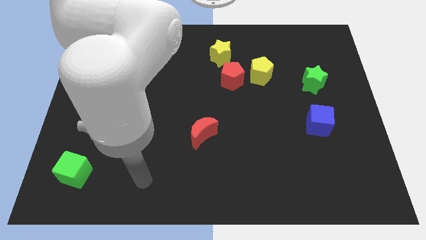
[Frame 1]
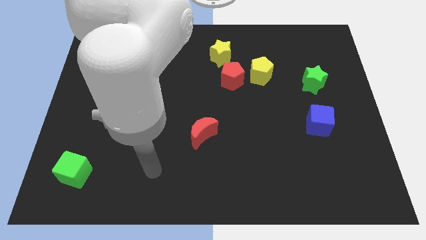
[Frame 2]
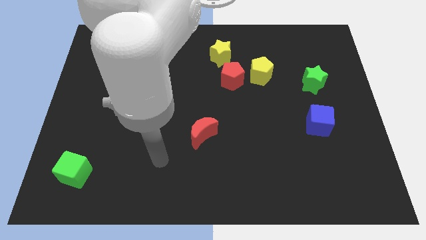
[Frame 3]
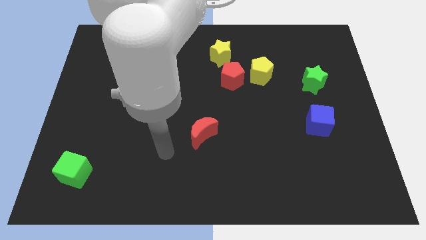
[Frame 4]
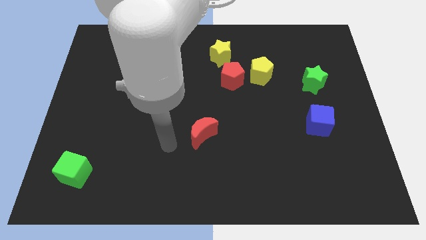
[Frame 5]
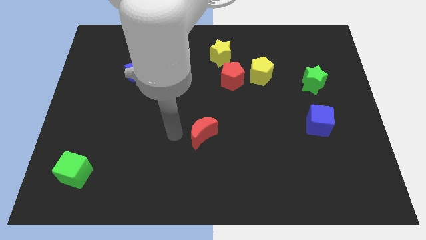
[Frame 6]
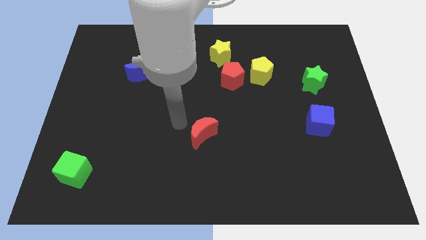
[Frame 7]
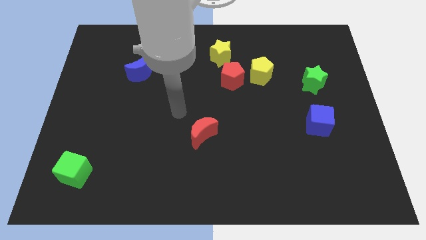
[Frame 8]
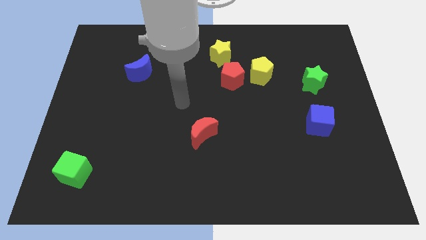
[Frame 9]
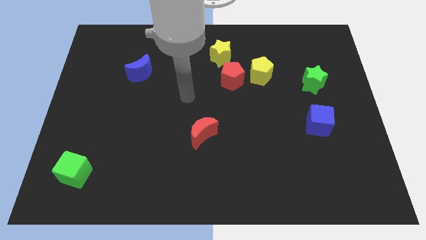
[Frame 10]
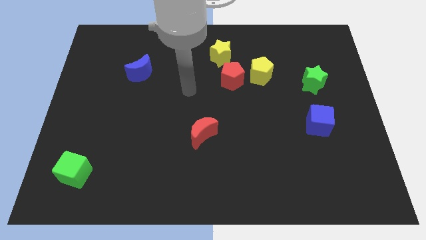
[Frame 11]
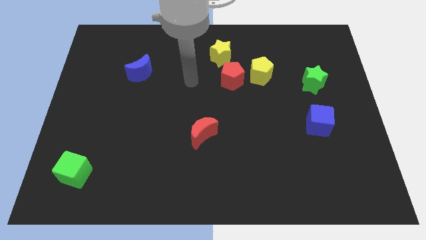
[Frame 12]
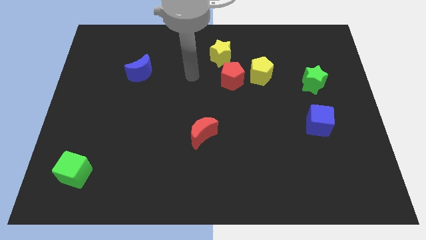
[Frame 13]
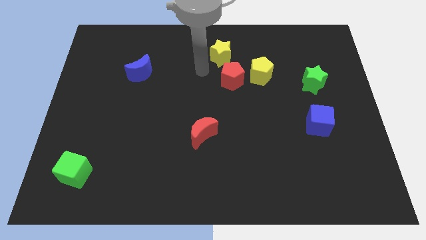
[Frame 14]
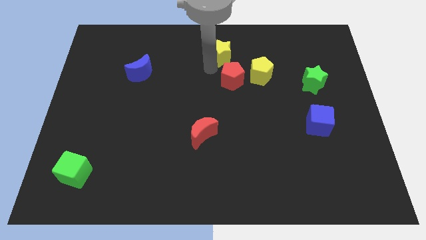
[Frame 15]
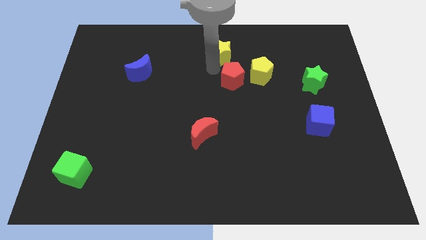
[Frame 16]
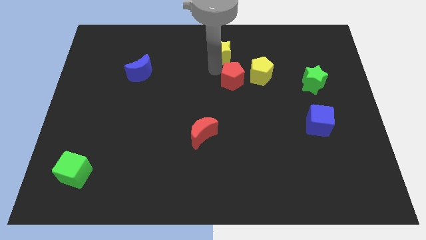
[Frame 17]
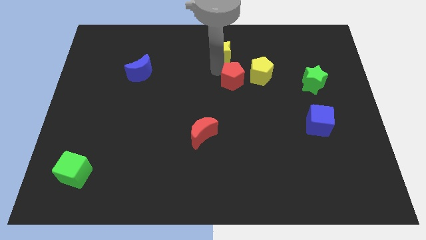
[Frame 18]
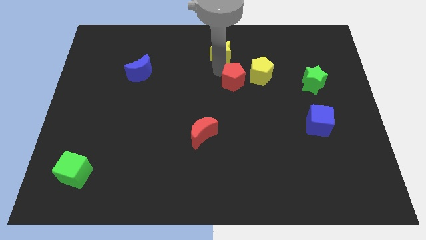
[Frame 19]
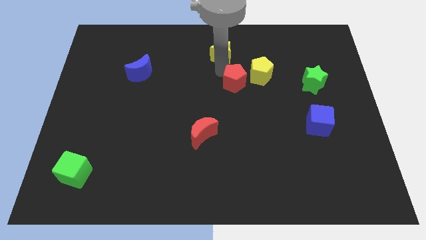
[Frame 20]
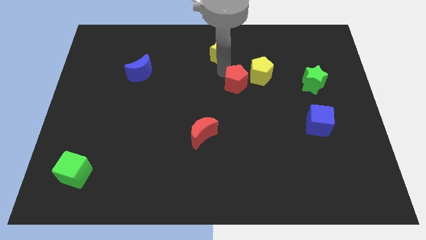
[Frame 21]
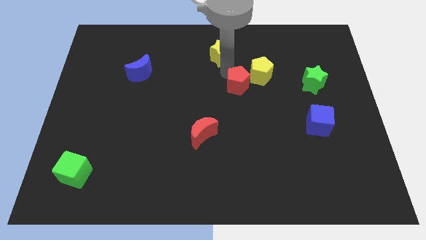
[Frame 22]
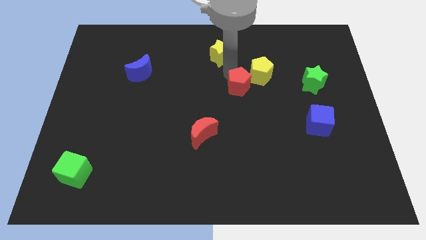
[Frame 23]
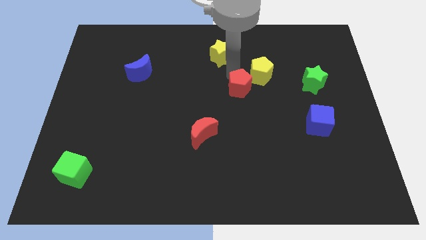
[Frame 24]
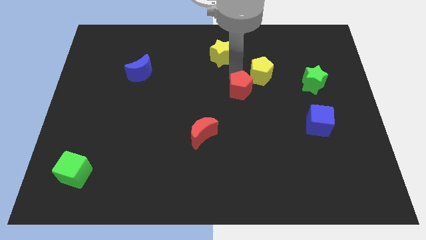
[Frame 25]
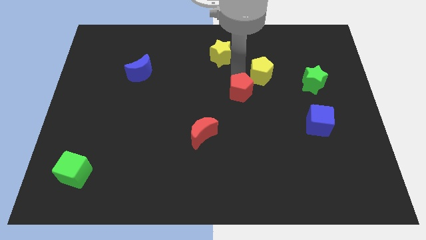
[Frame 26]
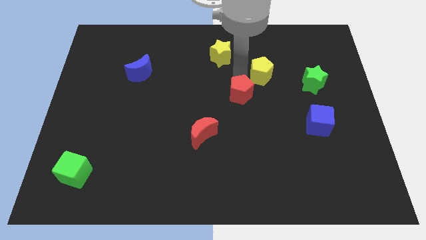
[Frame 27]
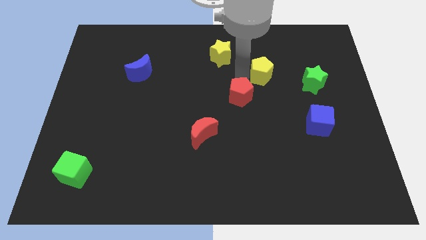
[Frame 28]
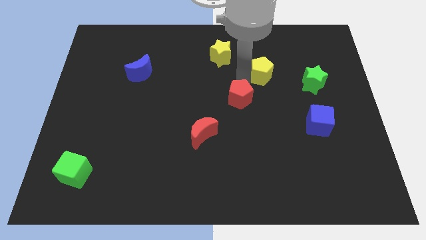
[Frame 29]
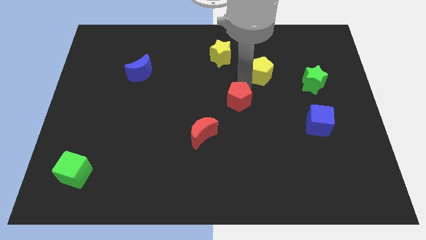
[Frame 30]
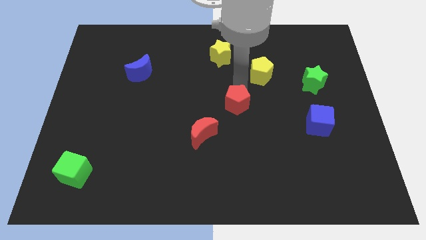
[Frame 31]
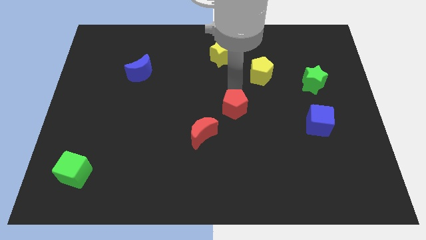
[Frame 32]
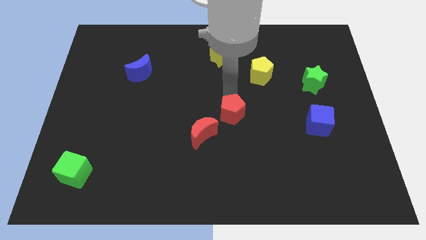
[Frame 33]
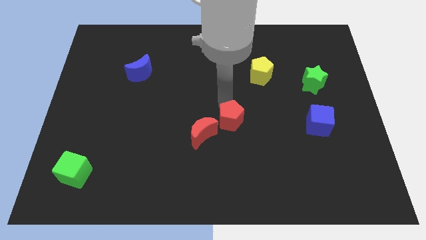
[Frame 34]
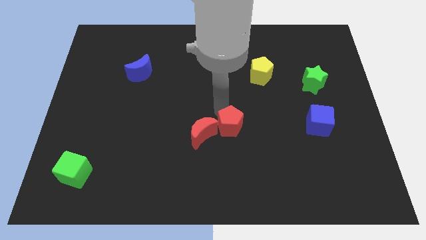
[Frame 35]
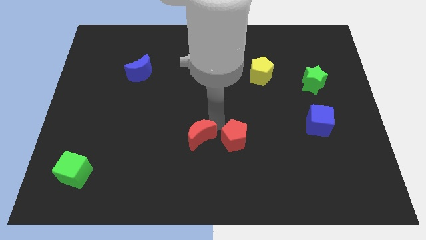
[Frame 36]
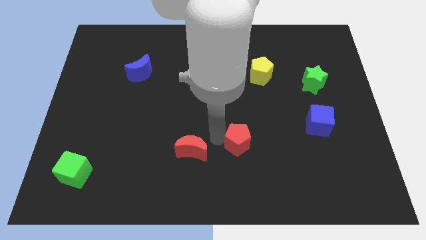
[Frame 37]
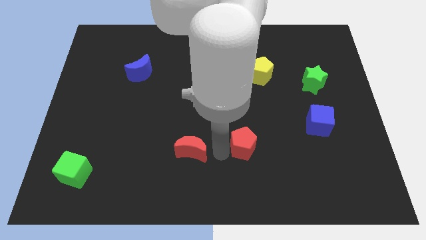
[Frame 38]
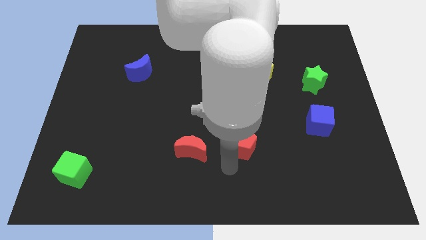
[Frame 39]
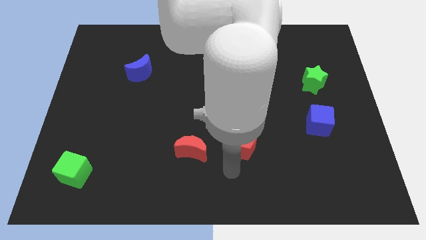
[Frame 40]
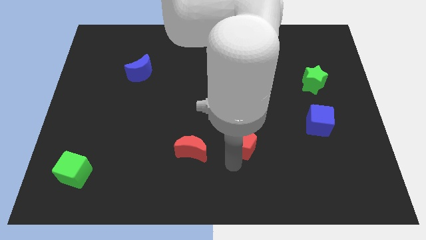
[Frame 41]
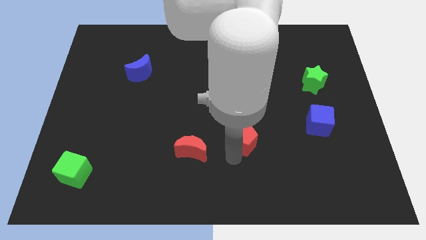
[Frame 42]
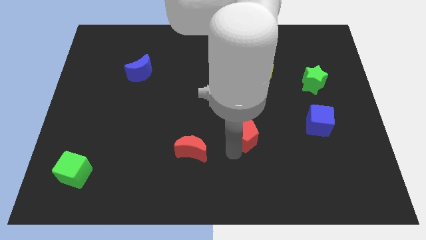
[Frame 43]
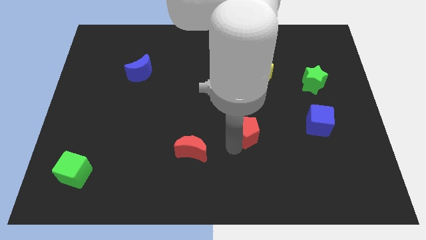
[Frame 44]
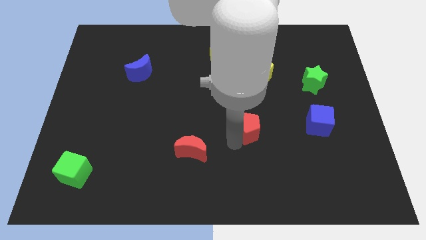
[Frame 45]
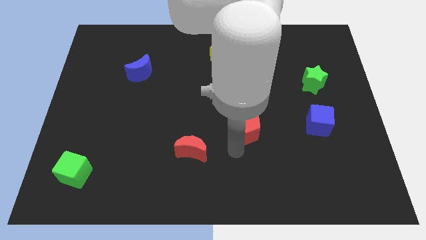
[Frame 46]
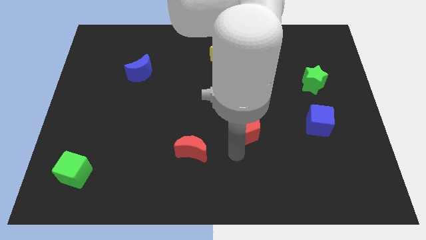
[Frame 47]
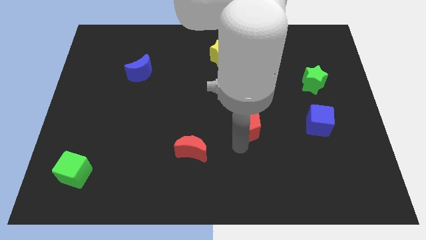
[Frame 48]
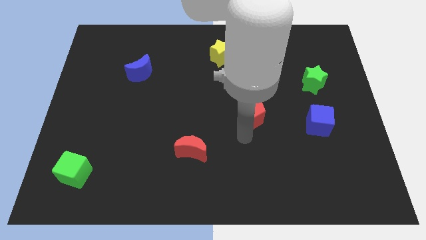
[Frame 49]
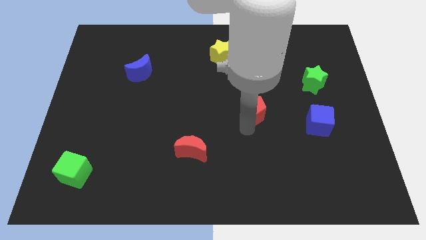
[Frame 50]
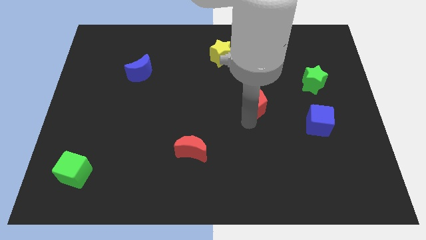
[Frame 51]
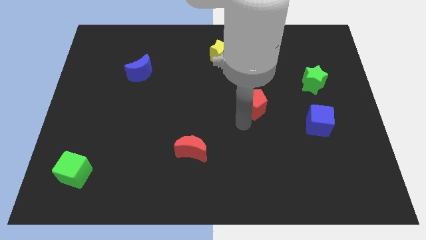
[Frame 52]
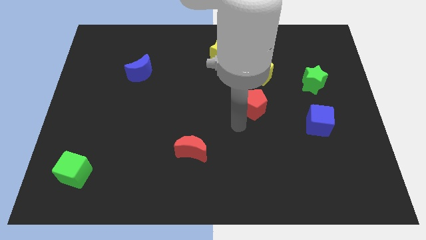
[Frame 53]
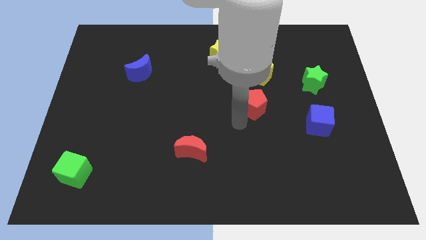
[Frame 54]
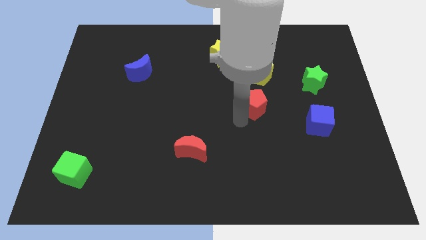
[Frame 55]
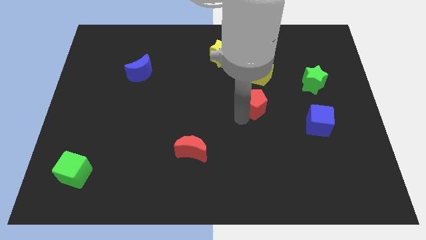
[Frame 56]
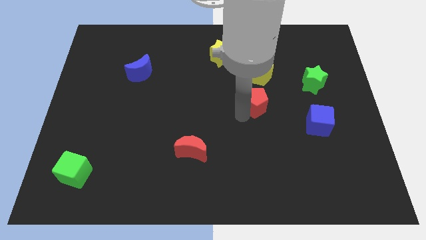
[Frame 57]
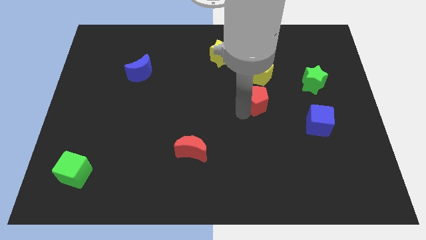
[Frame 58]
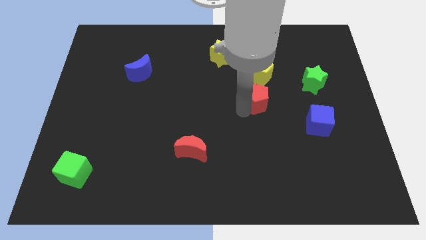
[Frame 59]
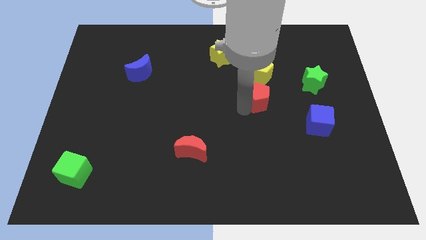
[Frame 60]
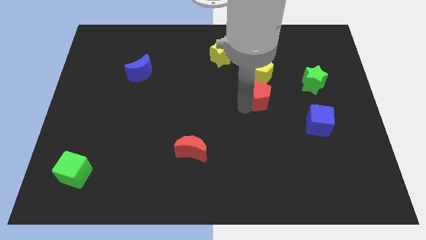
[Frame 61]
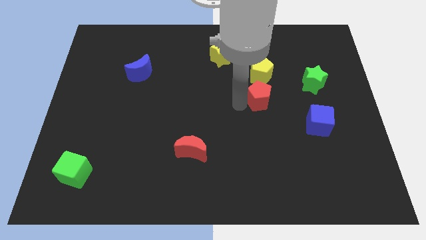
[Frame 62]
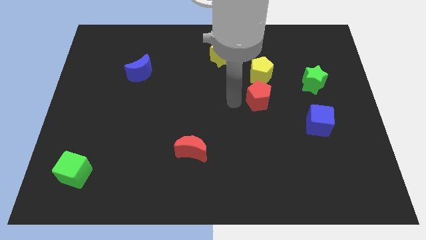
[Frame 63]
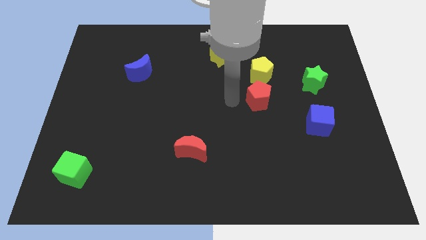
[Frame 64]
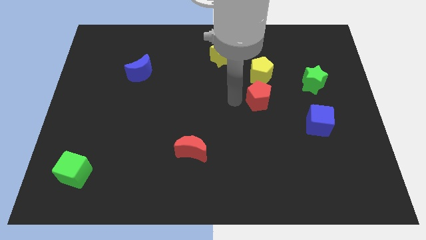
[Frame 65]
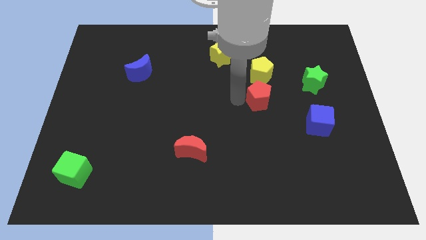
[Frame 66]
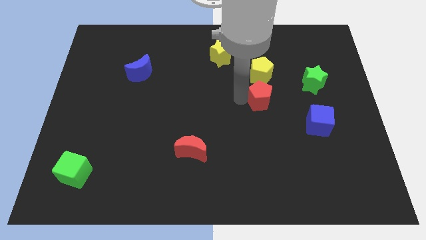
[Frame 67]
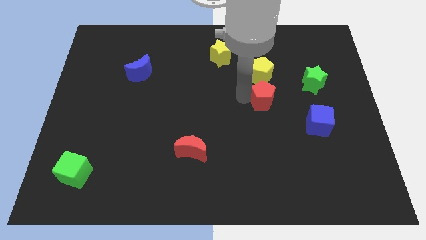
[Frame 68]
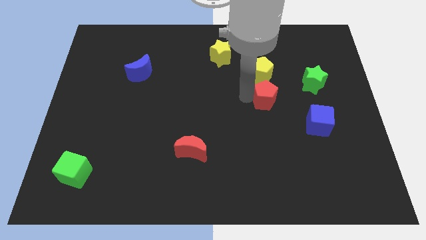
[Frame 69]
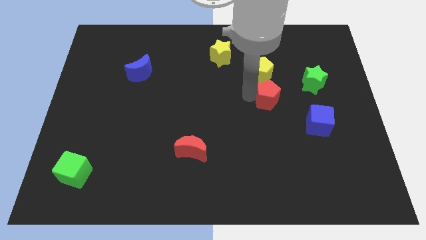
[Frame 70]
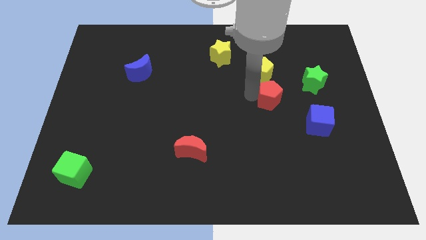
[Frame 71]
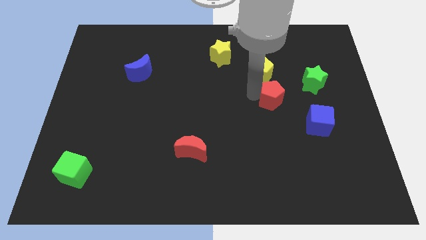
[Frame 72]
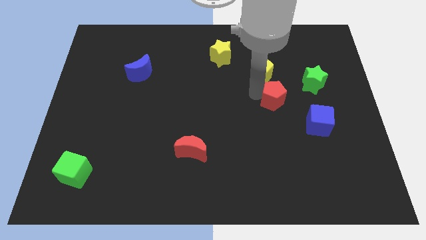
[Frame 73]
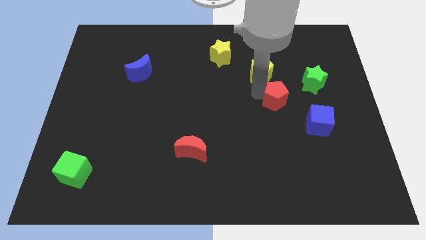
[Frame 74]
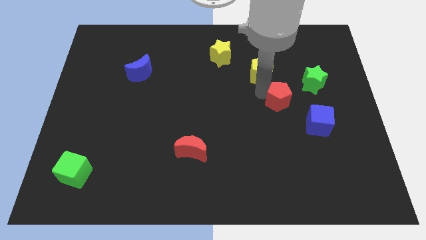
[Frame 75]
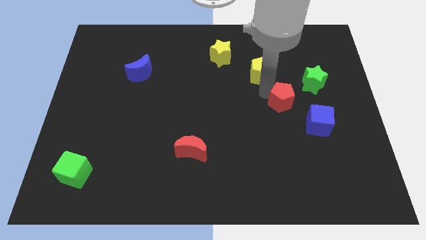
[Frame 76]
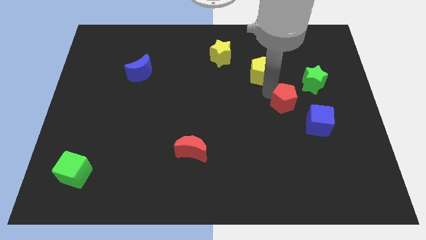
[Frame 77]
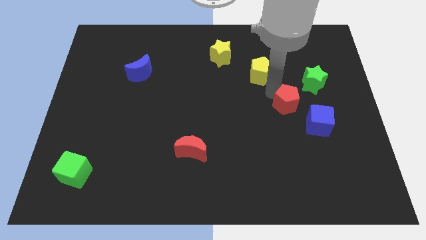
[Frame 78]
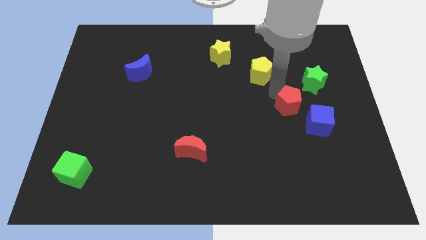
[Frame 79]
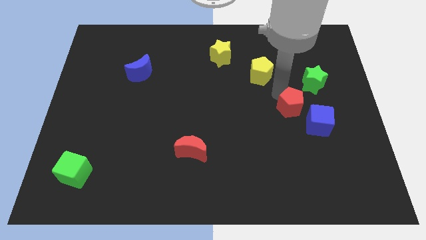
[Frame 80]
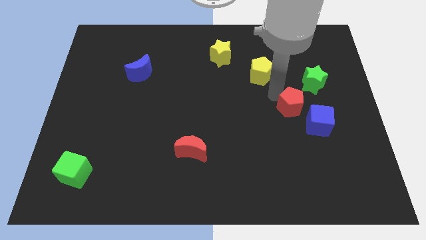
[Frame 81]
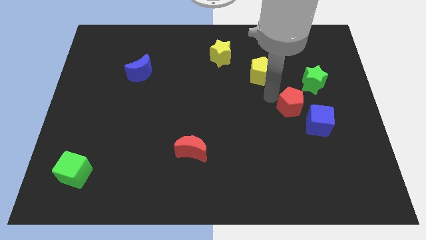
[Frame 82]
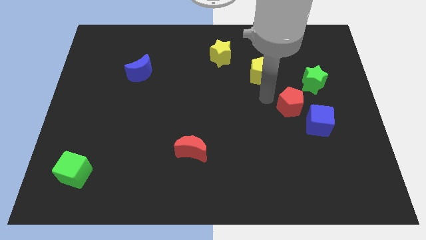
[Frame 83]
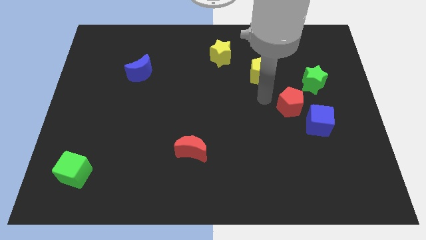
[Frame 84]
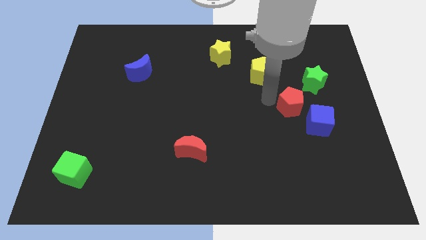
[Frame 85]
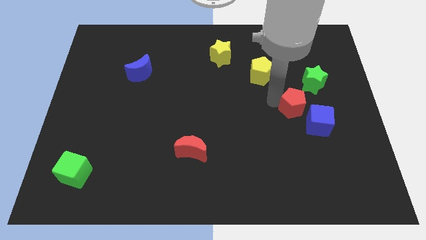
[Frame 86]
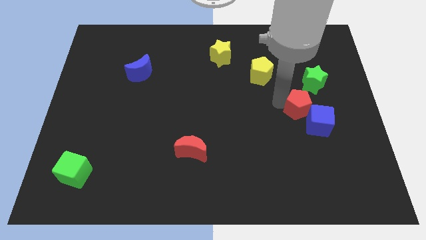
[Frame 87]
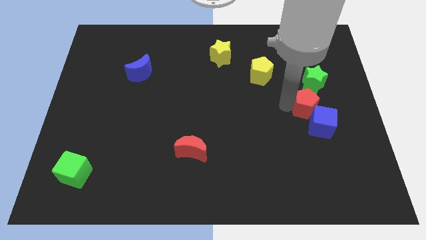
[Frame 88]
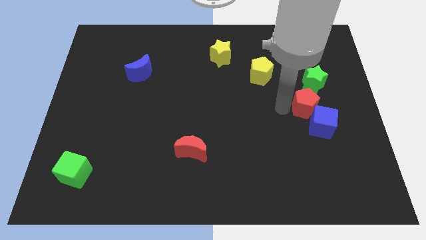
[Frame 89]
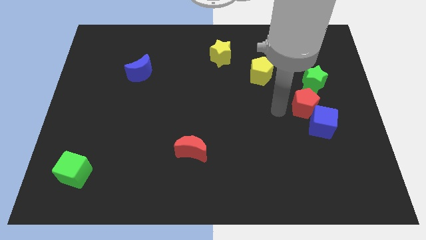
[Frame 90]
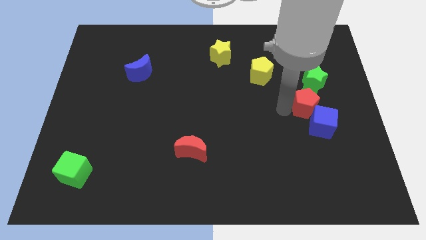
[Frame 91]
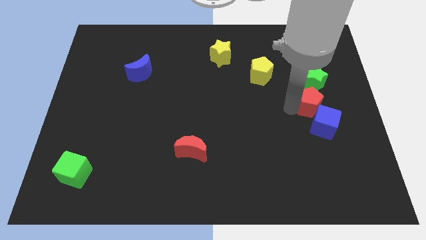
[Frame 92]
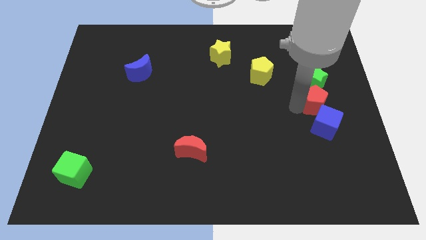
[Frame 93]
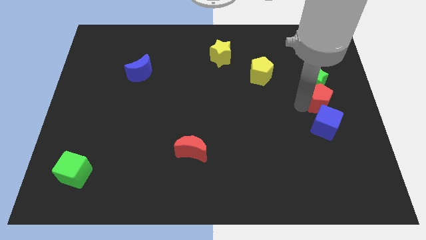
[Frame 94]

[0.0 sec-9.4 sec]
move the red pentagon to the center right

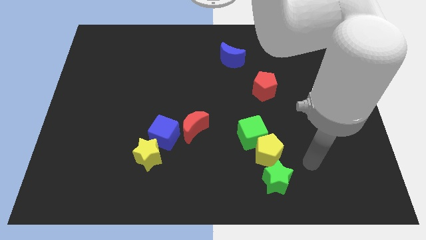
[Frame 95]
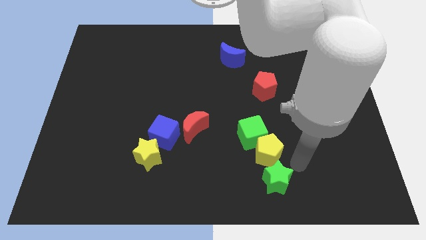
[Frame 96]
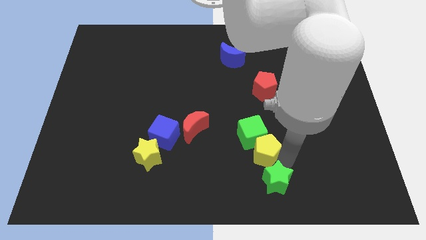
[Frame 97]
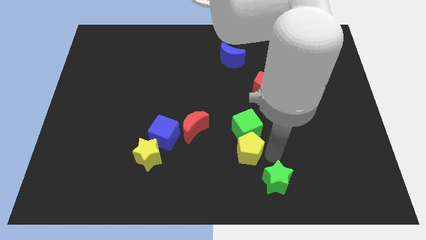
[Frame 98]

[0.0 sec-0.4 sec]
slide the green cube to the center
